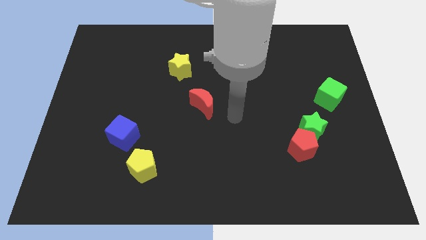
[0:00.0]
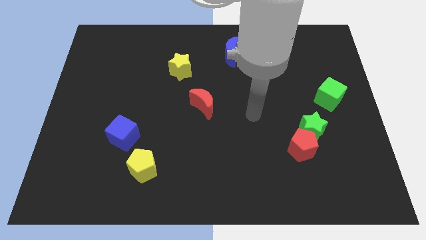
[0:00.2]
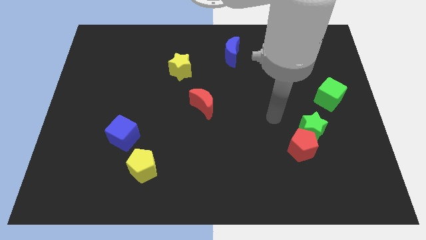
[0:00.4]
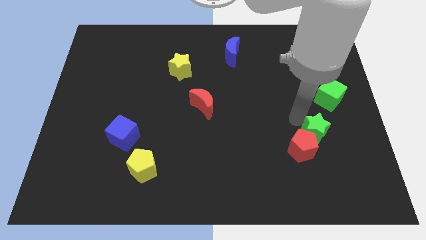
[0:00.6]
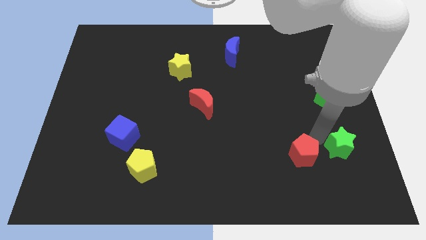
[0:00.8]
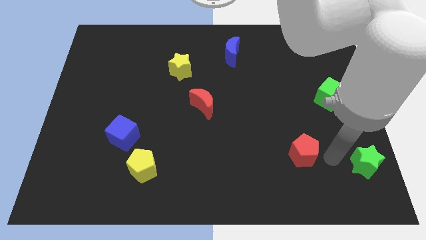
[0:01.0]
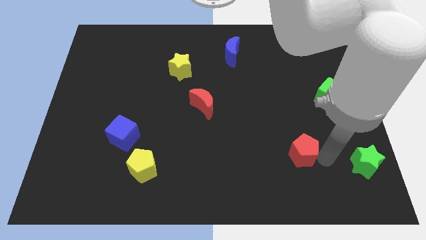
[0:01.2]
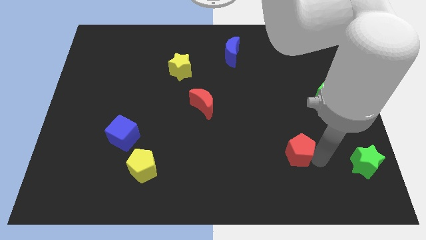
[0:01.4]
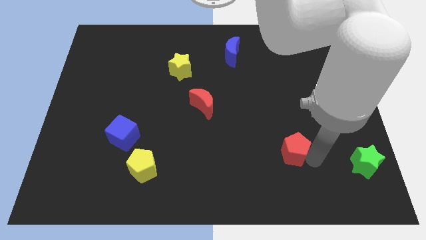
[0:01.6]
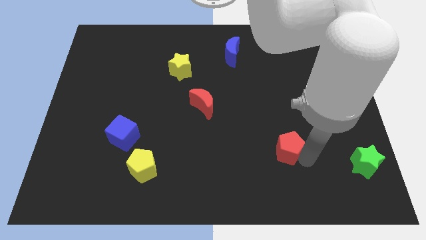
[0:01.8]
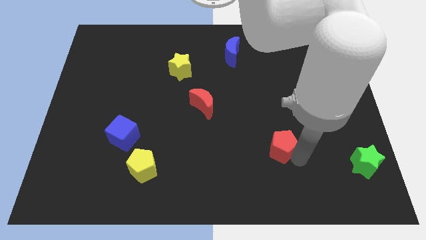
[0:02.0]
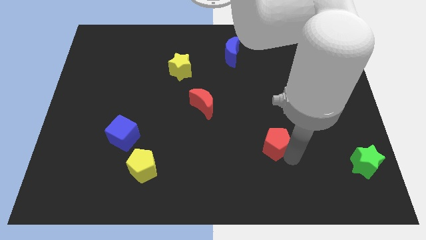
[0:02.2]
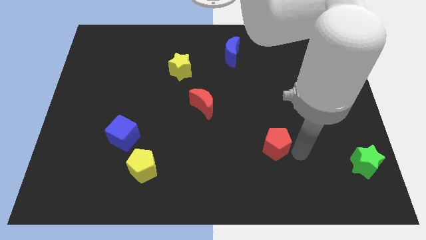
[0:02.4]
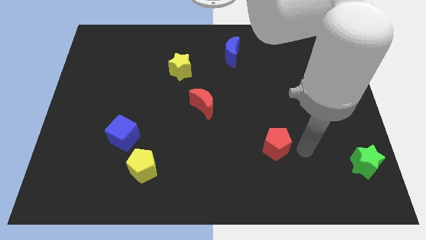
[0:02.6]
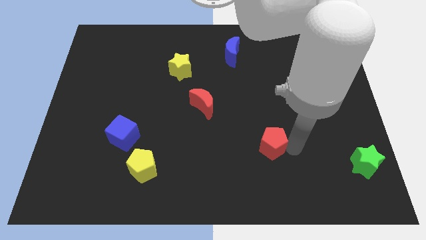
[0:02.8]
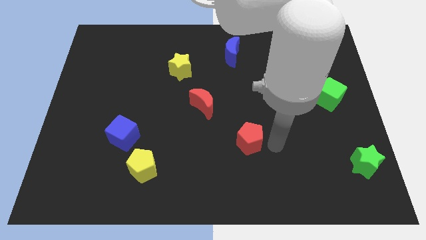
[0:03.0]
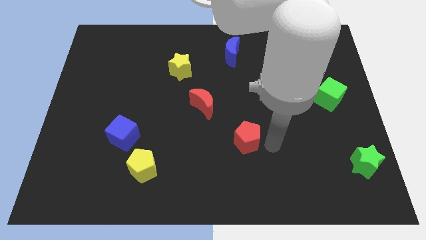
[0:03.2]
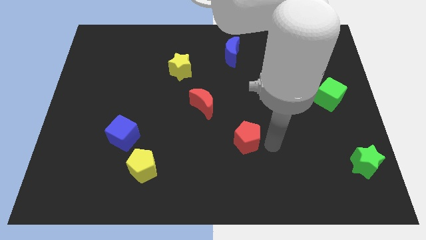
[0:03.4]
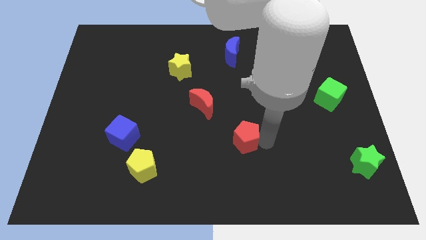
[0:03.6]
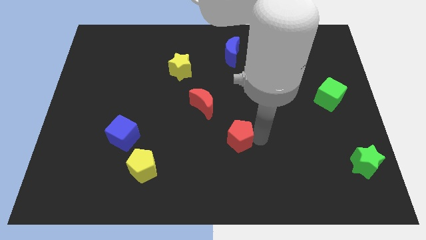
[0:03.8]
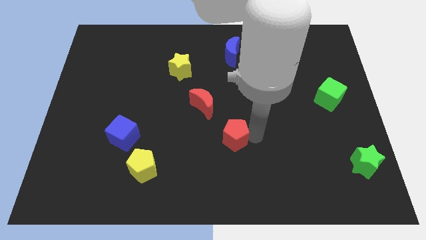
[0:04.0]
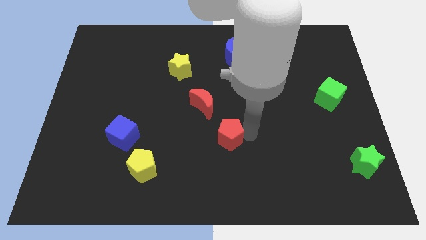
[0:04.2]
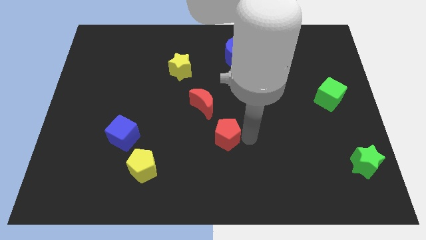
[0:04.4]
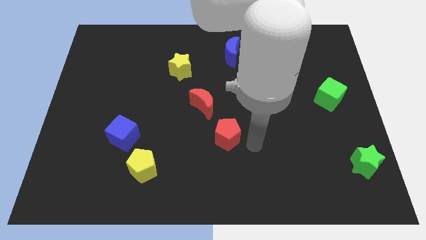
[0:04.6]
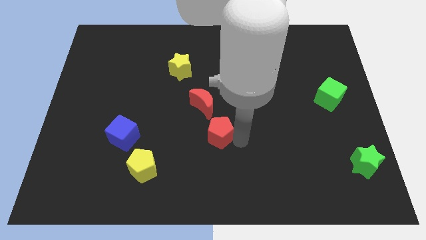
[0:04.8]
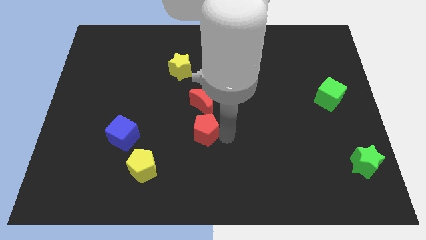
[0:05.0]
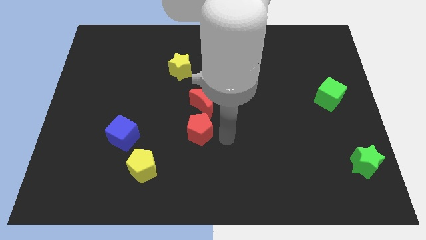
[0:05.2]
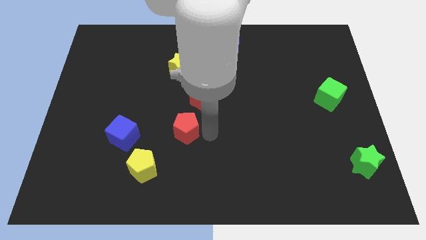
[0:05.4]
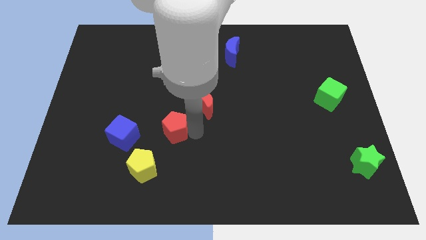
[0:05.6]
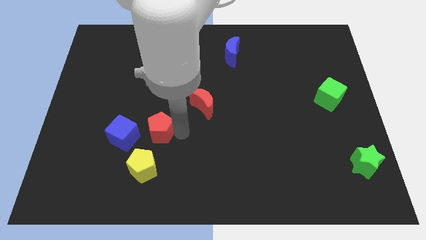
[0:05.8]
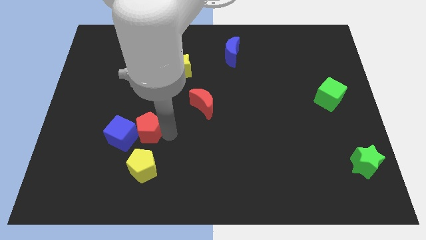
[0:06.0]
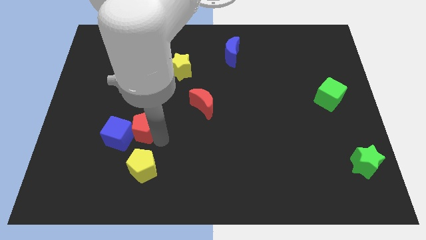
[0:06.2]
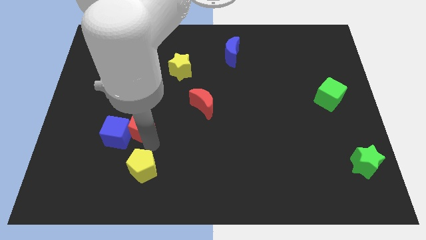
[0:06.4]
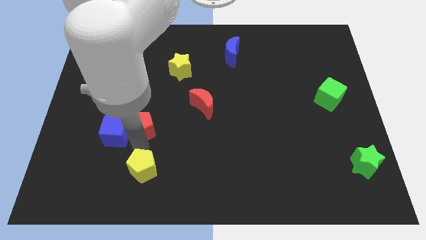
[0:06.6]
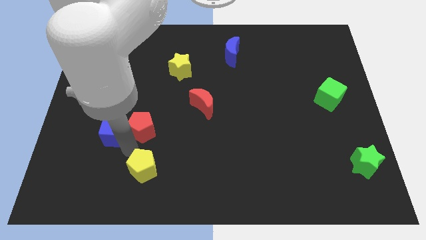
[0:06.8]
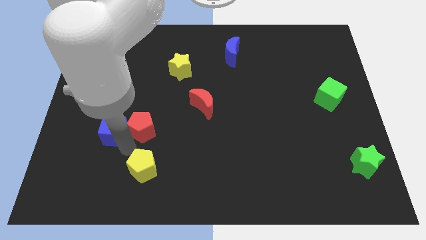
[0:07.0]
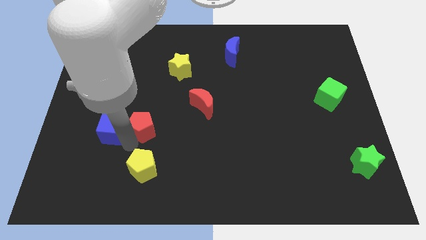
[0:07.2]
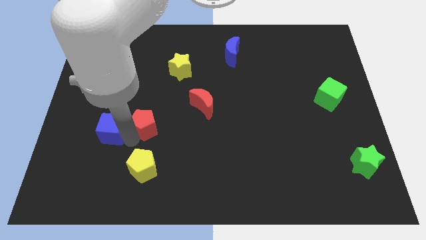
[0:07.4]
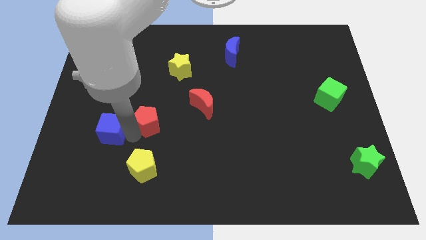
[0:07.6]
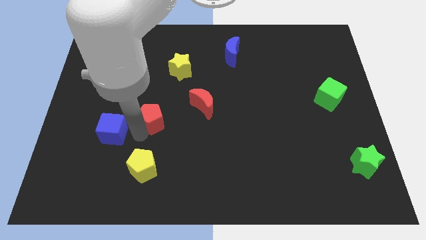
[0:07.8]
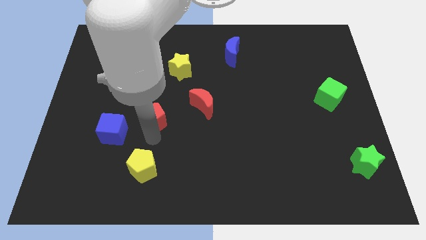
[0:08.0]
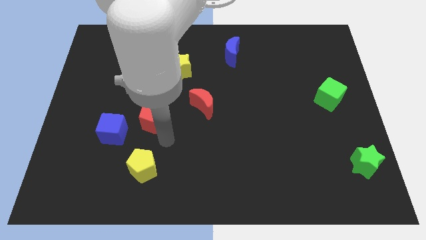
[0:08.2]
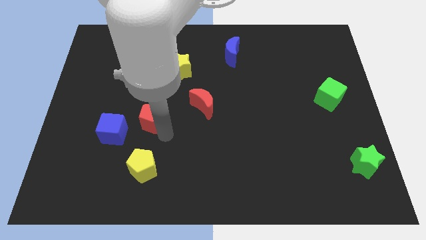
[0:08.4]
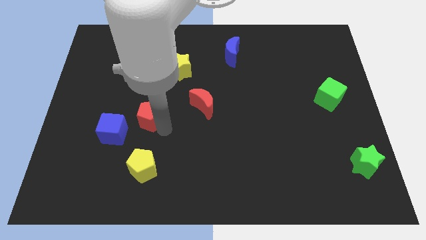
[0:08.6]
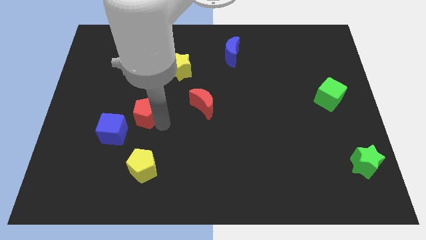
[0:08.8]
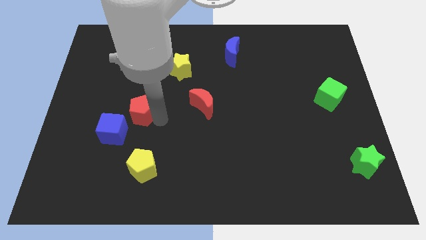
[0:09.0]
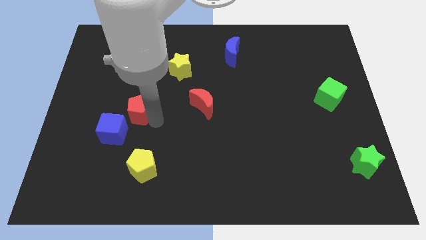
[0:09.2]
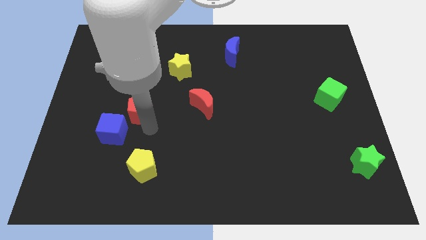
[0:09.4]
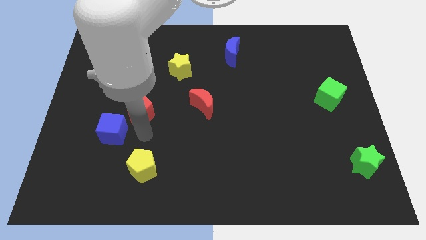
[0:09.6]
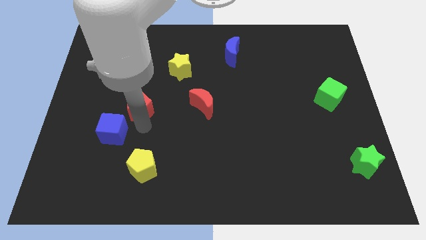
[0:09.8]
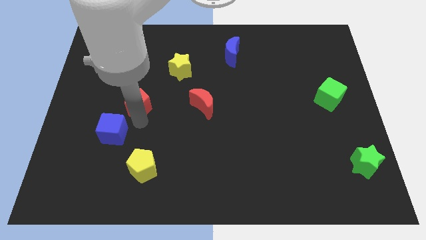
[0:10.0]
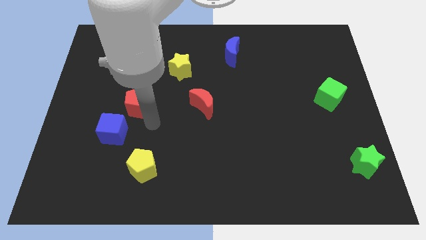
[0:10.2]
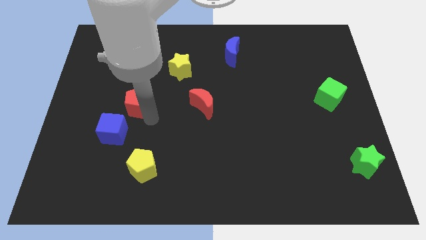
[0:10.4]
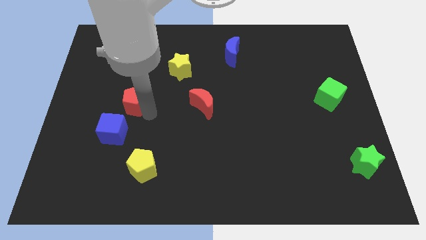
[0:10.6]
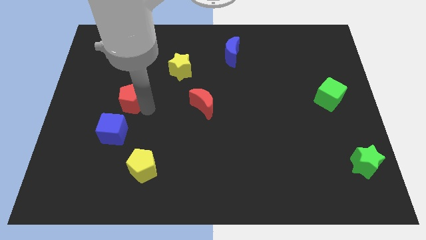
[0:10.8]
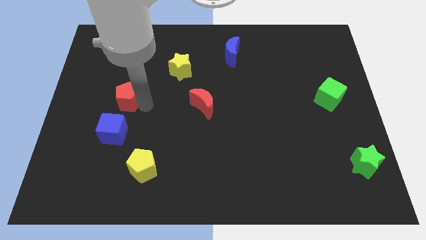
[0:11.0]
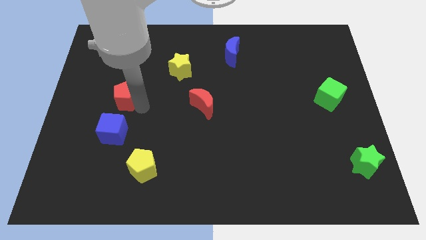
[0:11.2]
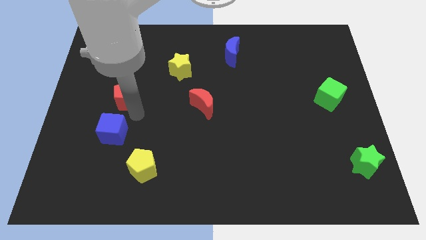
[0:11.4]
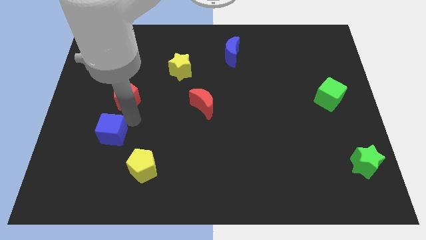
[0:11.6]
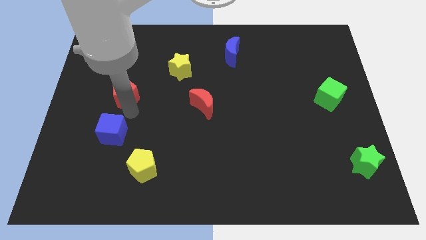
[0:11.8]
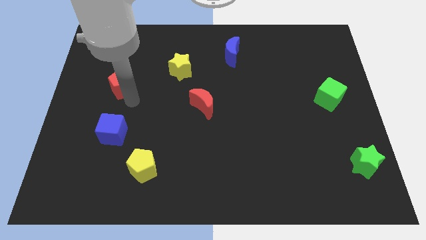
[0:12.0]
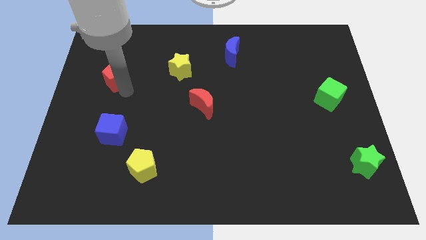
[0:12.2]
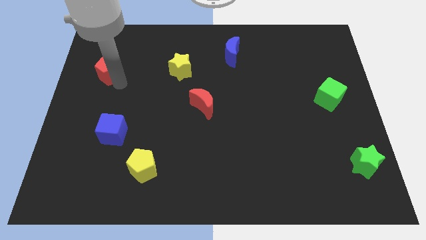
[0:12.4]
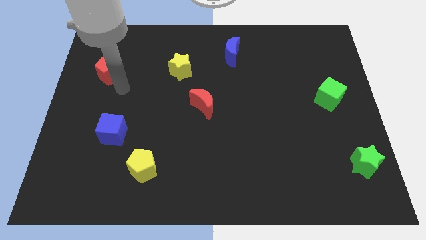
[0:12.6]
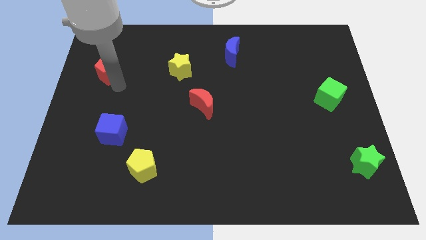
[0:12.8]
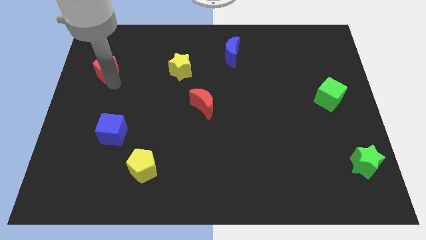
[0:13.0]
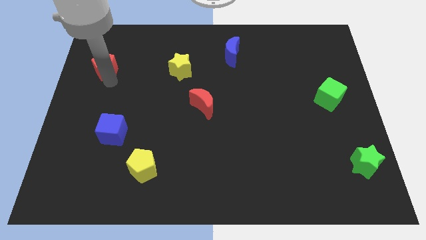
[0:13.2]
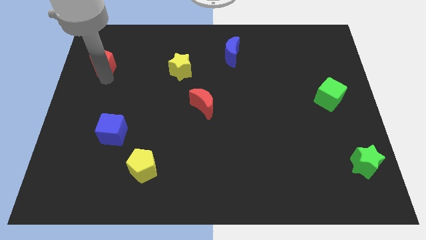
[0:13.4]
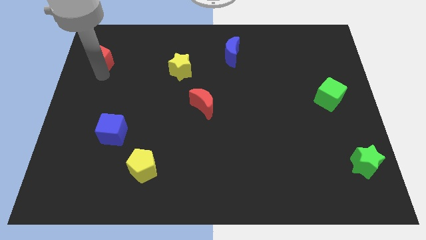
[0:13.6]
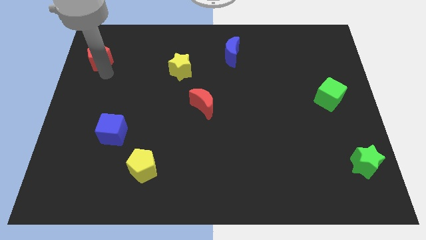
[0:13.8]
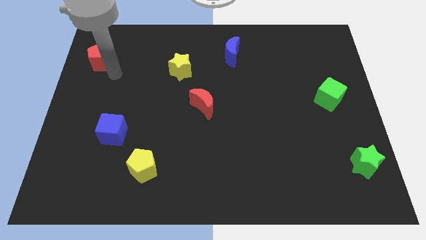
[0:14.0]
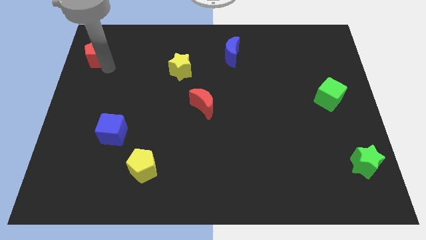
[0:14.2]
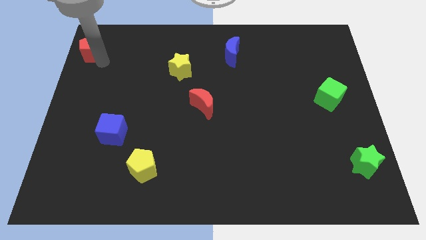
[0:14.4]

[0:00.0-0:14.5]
push the red pentagon to the top left of the board
